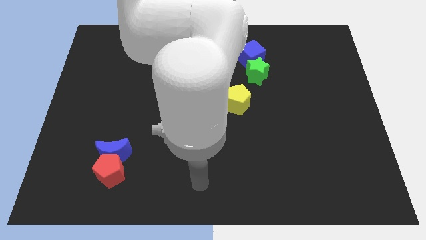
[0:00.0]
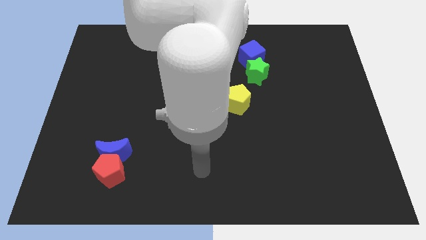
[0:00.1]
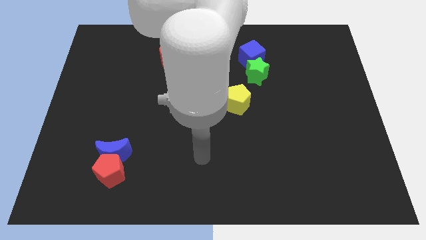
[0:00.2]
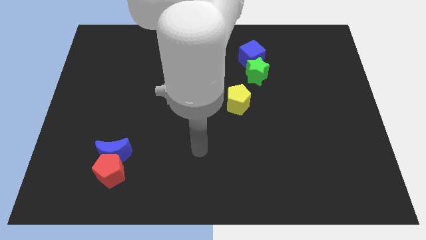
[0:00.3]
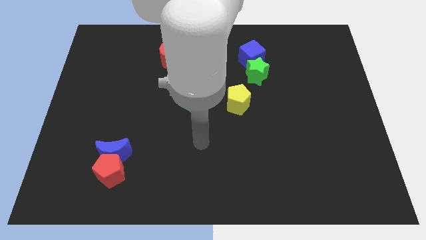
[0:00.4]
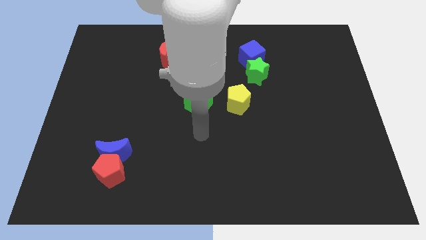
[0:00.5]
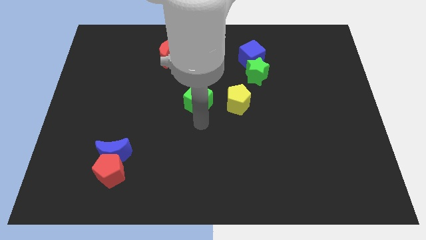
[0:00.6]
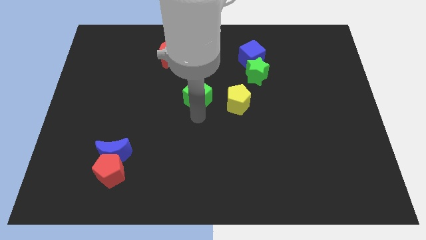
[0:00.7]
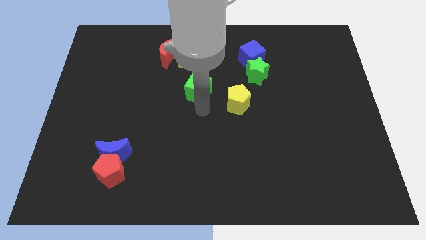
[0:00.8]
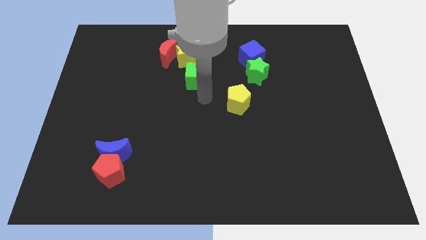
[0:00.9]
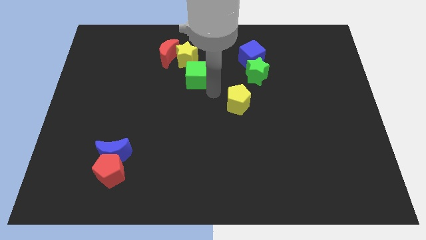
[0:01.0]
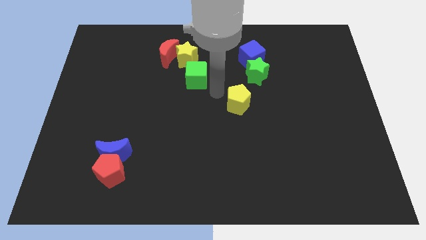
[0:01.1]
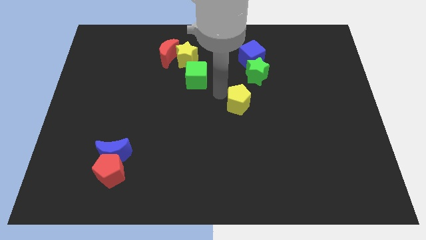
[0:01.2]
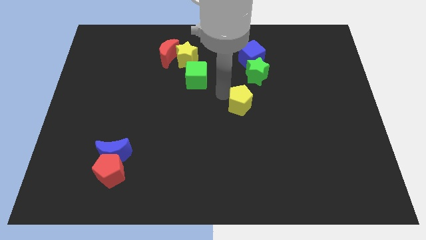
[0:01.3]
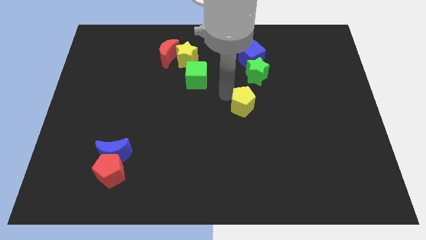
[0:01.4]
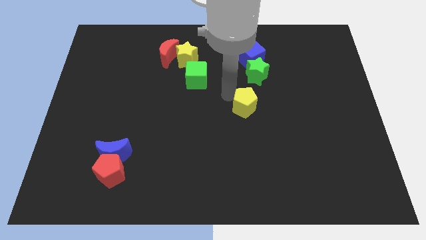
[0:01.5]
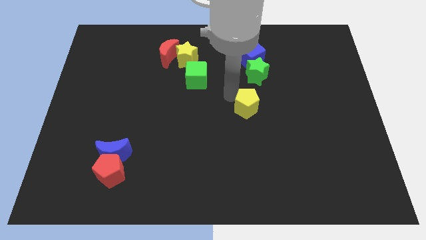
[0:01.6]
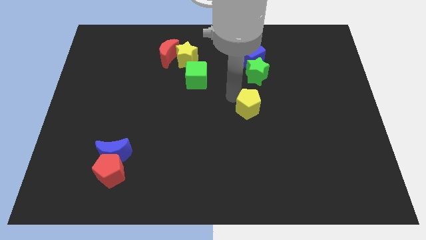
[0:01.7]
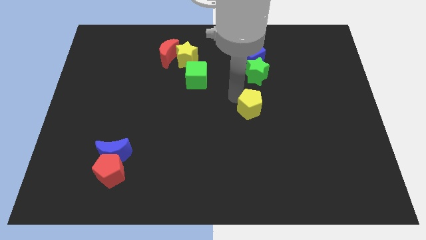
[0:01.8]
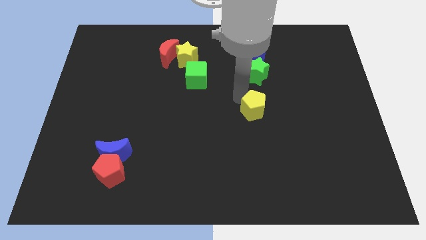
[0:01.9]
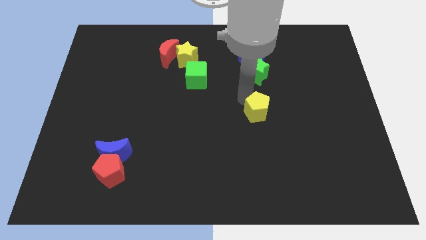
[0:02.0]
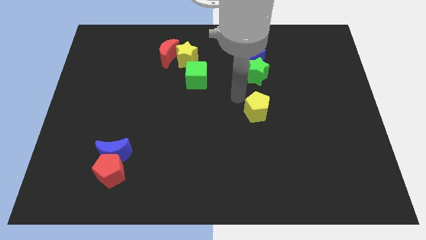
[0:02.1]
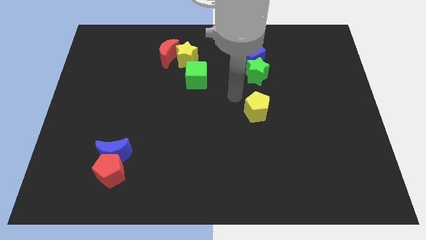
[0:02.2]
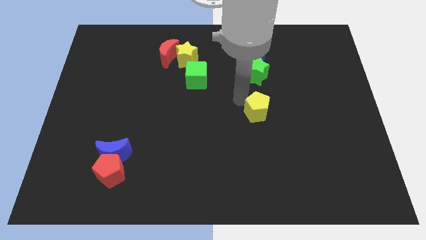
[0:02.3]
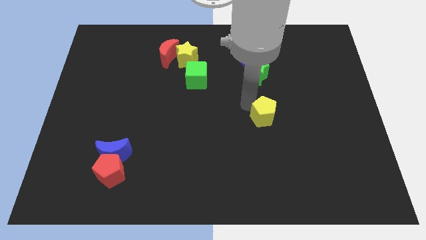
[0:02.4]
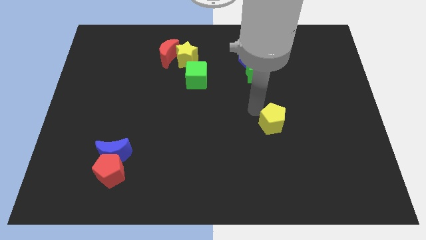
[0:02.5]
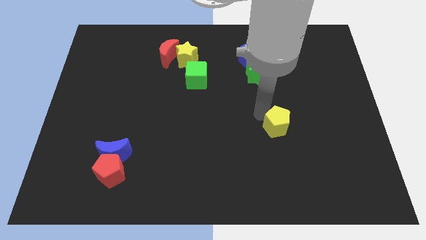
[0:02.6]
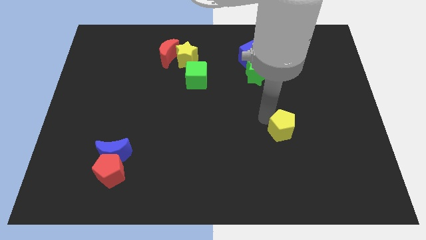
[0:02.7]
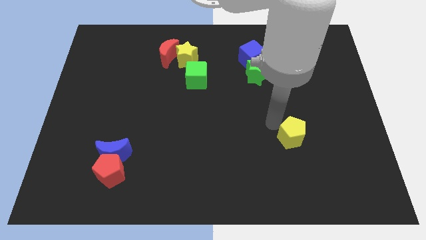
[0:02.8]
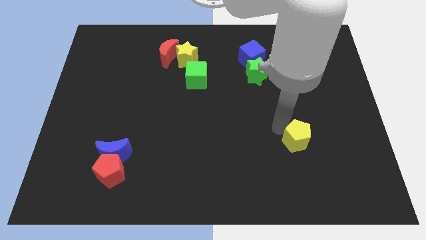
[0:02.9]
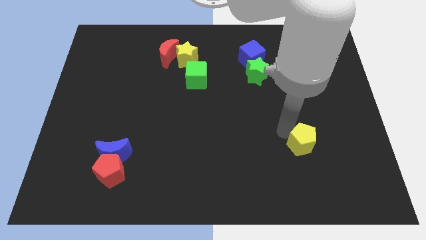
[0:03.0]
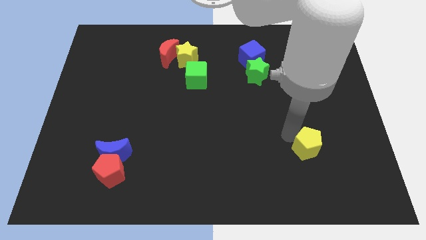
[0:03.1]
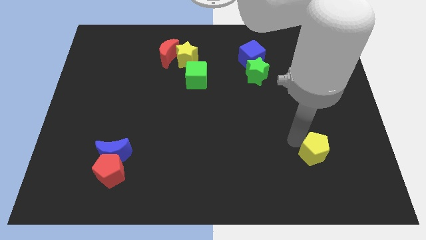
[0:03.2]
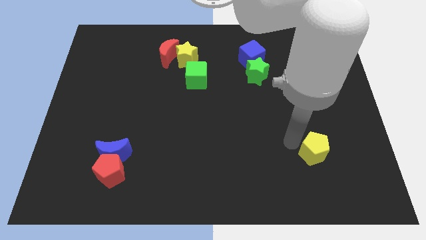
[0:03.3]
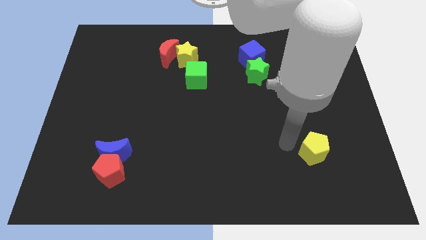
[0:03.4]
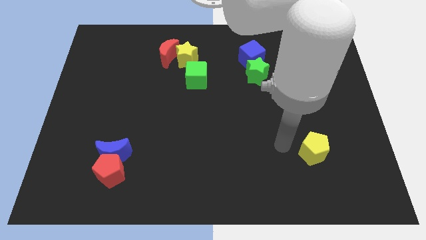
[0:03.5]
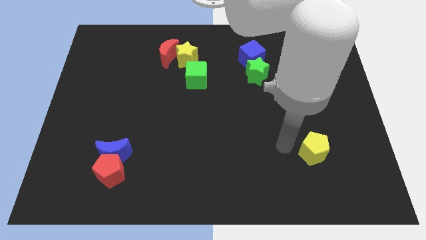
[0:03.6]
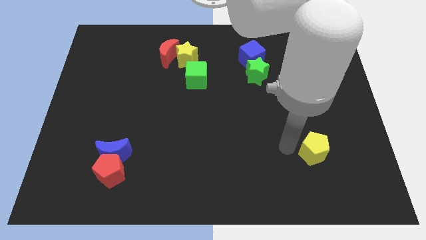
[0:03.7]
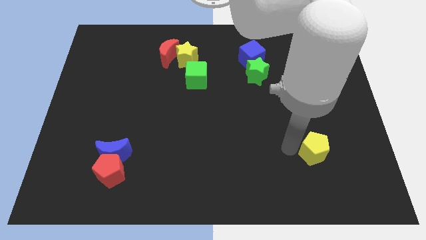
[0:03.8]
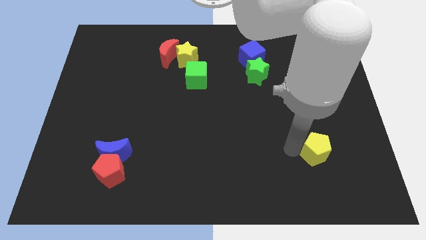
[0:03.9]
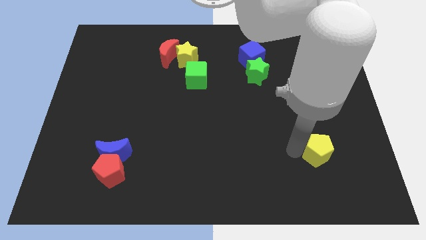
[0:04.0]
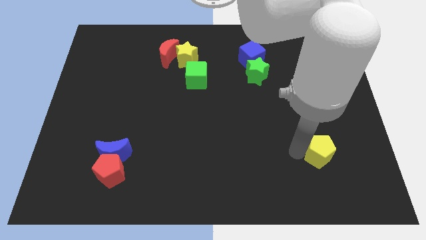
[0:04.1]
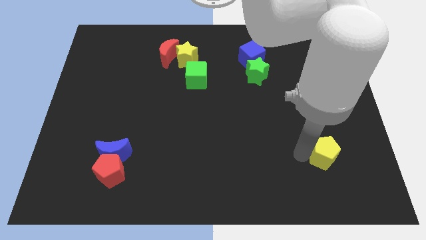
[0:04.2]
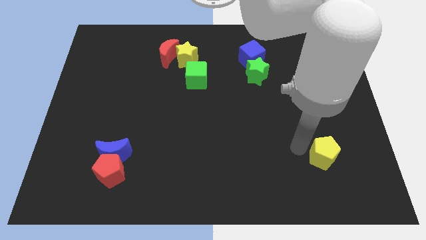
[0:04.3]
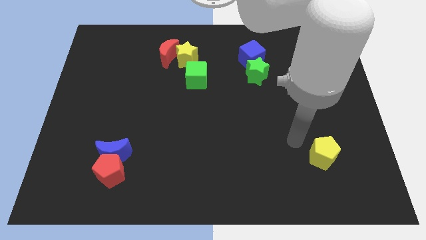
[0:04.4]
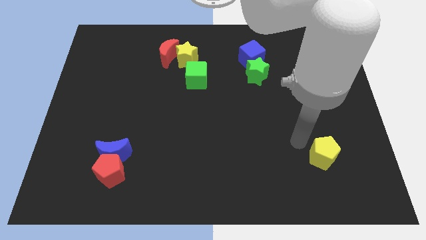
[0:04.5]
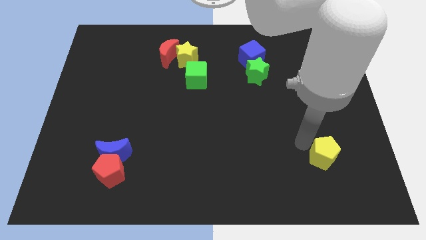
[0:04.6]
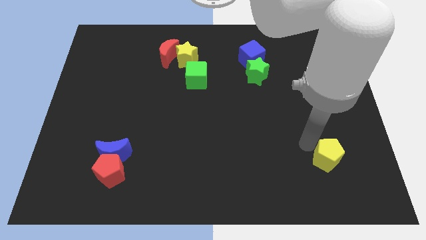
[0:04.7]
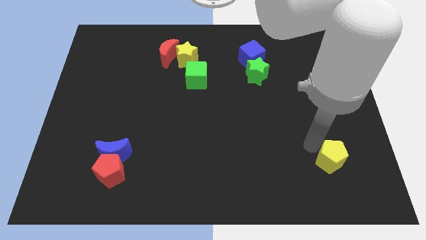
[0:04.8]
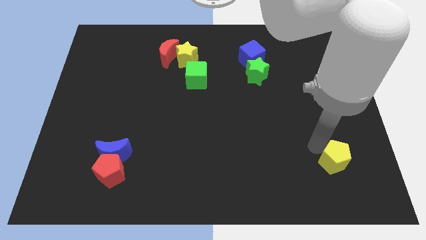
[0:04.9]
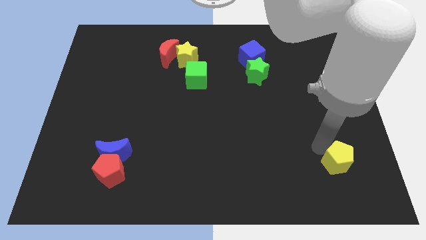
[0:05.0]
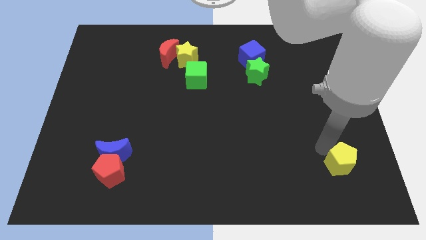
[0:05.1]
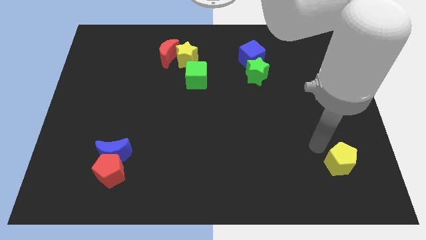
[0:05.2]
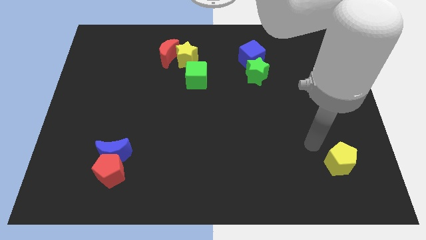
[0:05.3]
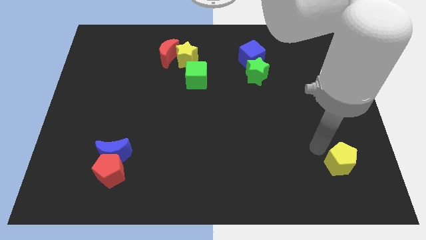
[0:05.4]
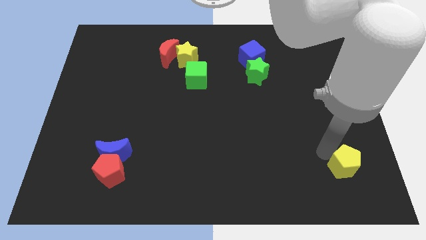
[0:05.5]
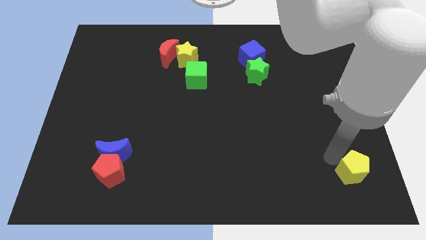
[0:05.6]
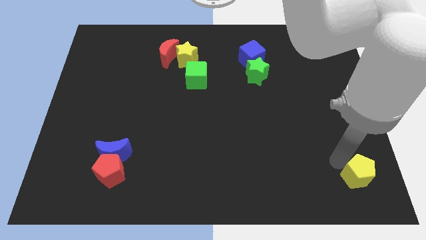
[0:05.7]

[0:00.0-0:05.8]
slide the yellow pentagon to the bottom right of the board

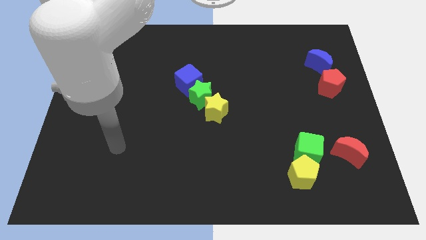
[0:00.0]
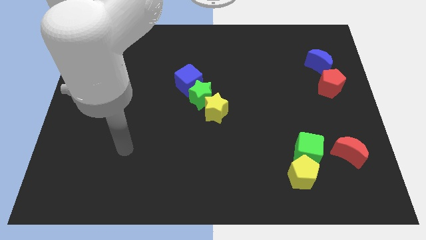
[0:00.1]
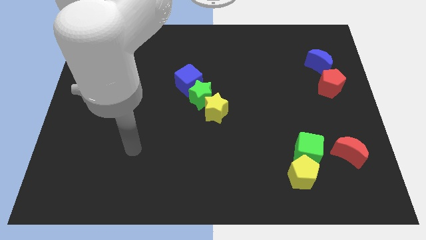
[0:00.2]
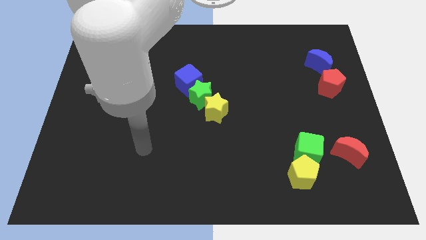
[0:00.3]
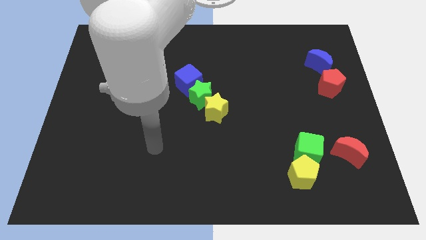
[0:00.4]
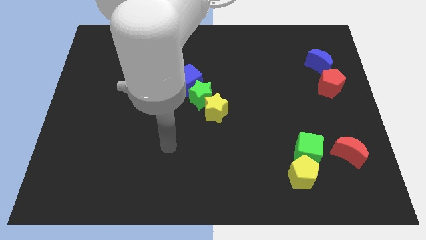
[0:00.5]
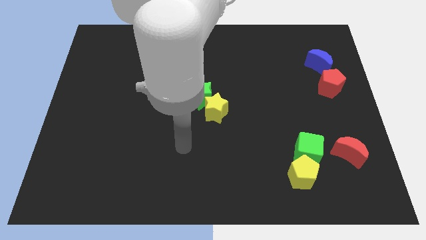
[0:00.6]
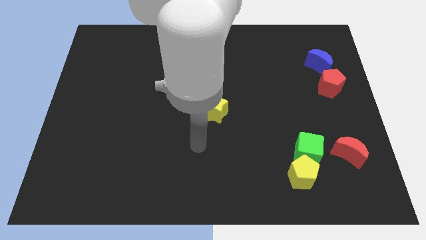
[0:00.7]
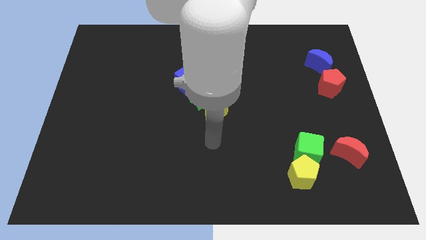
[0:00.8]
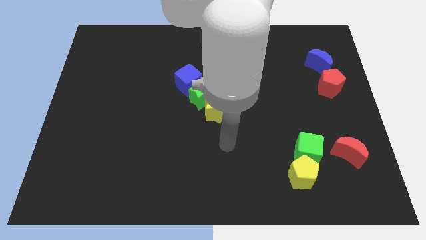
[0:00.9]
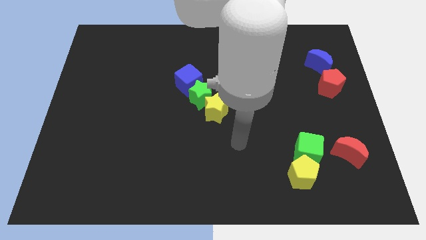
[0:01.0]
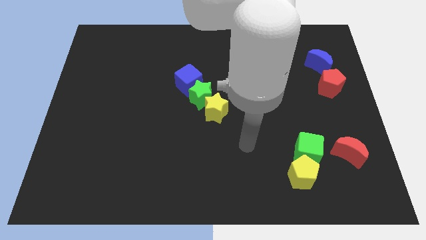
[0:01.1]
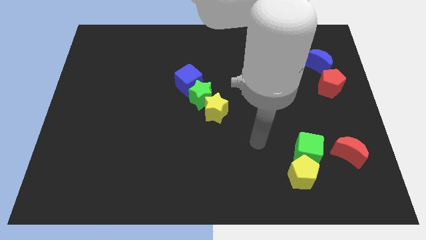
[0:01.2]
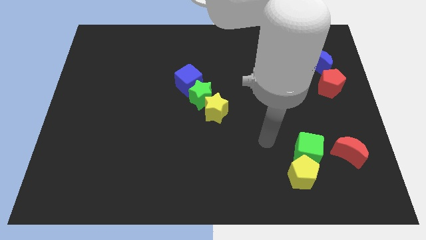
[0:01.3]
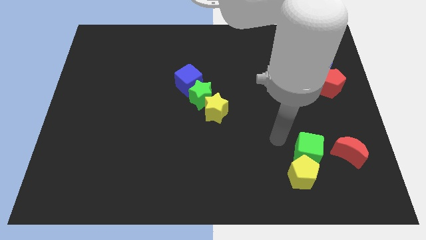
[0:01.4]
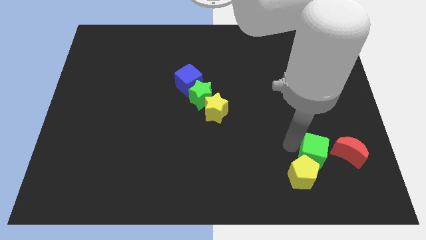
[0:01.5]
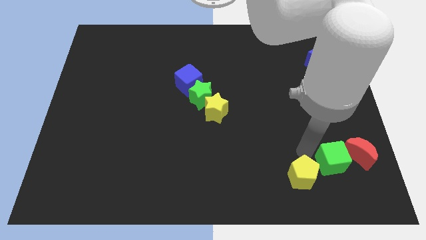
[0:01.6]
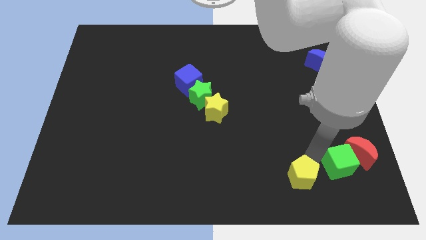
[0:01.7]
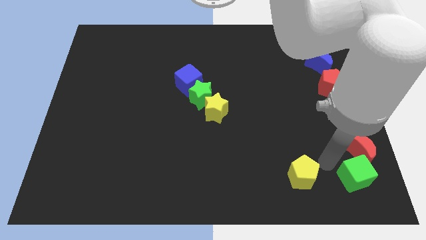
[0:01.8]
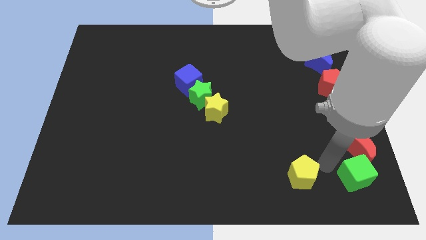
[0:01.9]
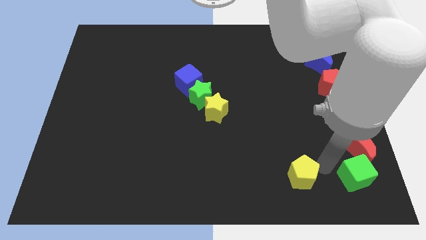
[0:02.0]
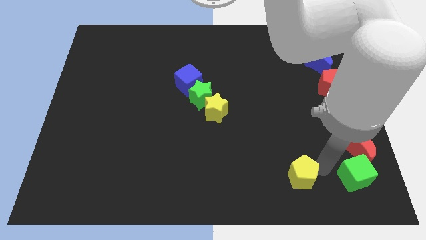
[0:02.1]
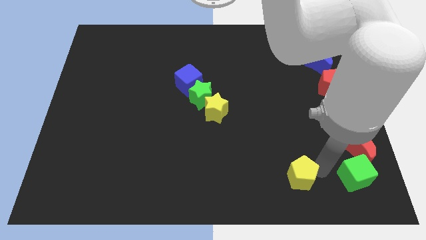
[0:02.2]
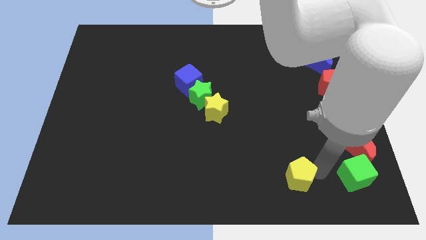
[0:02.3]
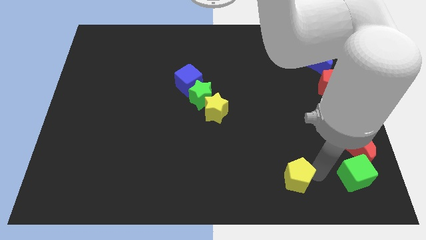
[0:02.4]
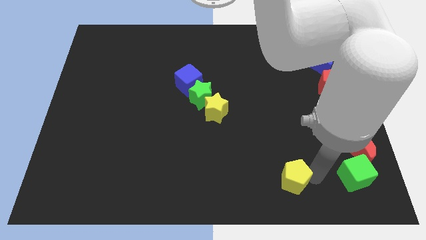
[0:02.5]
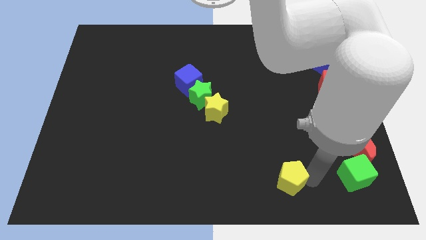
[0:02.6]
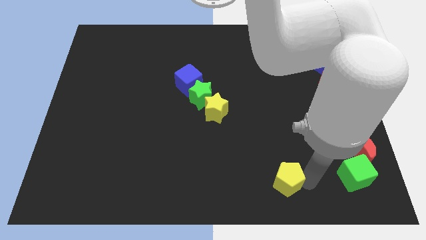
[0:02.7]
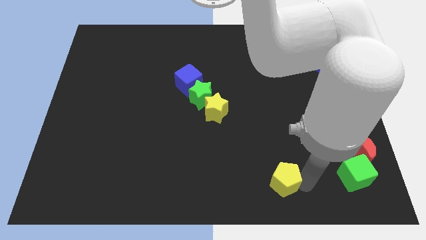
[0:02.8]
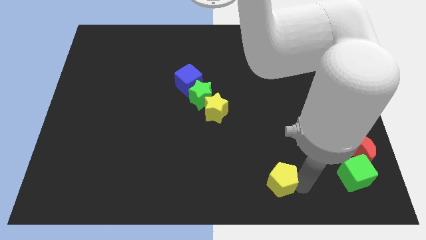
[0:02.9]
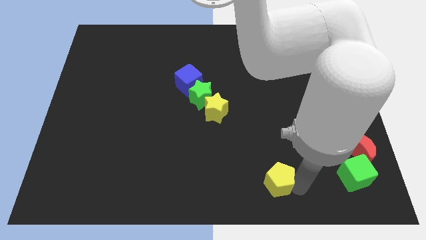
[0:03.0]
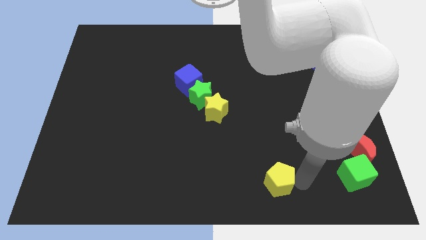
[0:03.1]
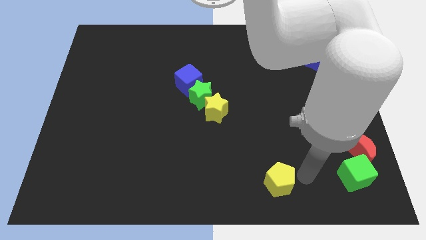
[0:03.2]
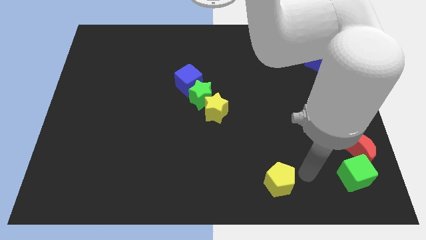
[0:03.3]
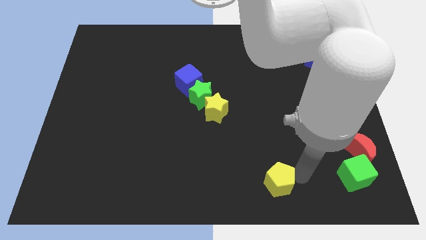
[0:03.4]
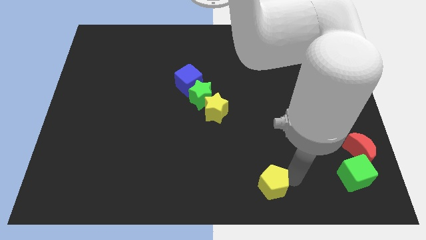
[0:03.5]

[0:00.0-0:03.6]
push the yellow pentagon to the bottom
